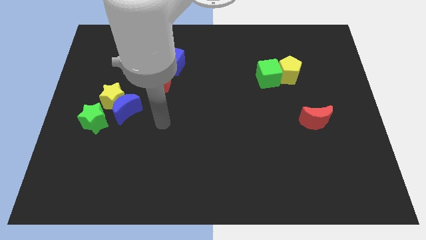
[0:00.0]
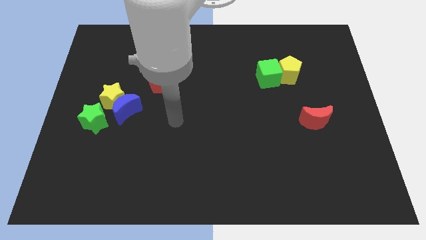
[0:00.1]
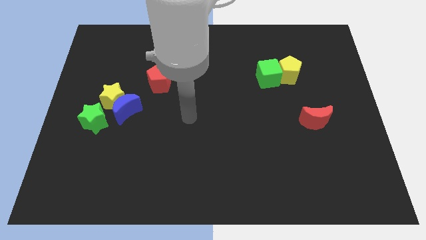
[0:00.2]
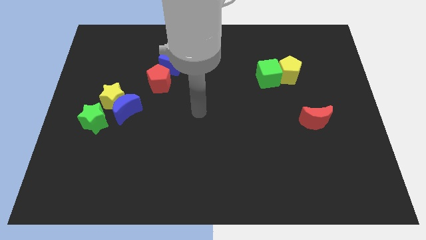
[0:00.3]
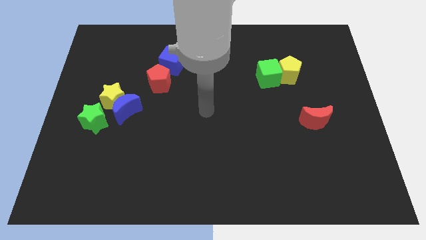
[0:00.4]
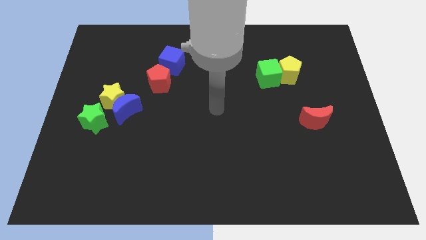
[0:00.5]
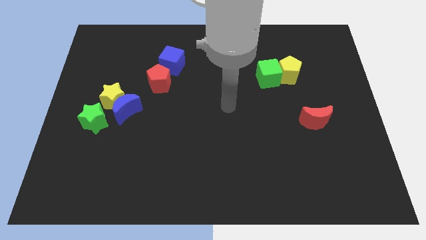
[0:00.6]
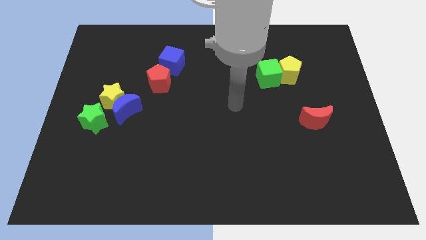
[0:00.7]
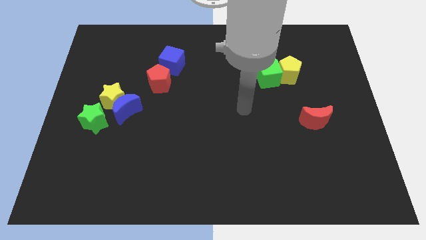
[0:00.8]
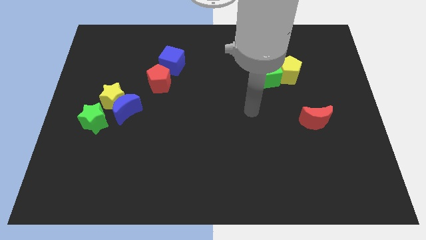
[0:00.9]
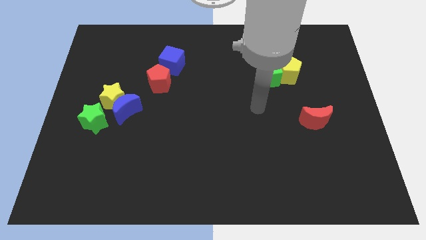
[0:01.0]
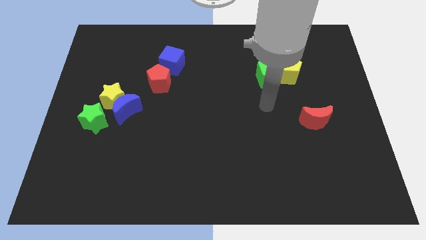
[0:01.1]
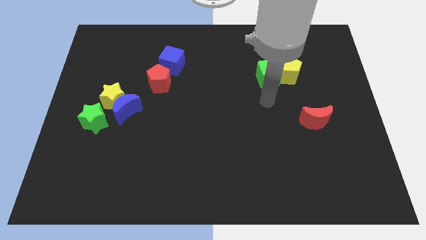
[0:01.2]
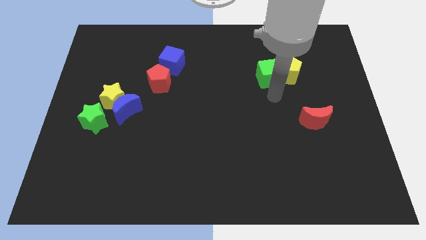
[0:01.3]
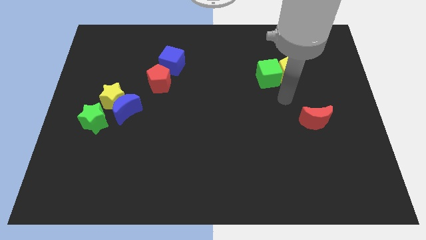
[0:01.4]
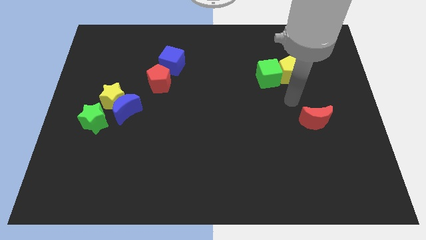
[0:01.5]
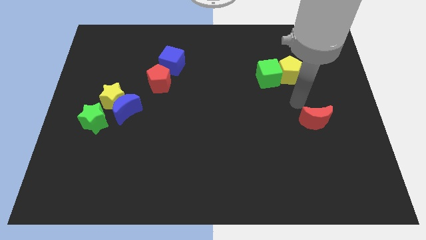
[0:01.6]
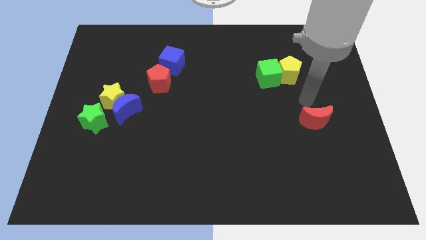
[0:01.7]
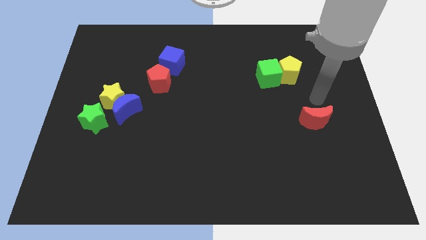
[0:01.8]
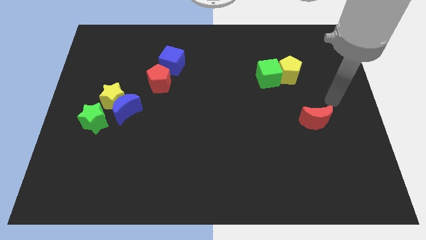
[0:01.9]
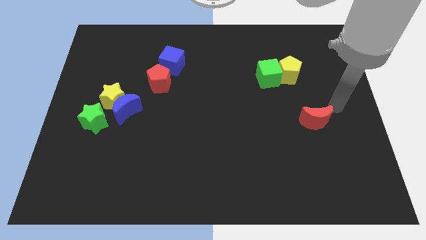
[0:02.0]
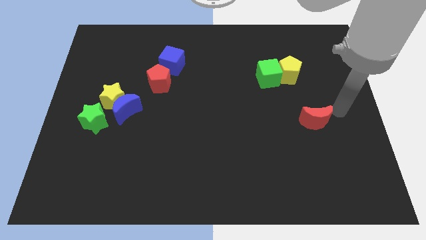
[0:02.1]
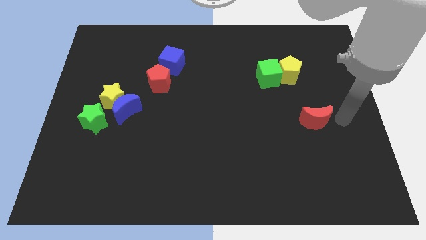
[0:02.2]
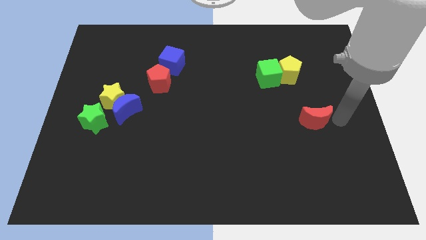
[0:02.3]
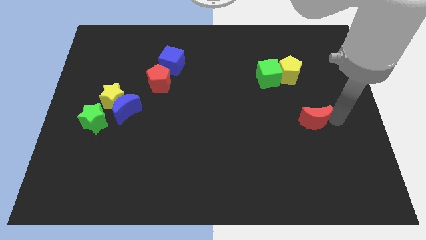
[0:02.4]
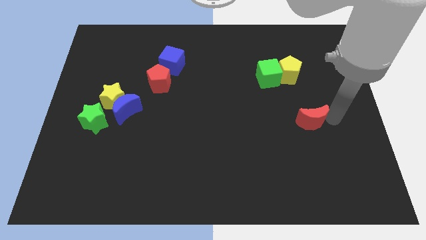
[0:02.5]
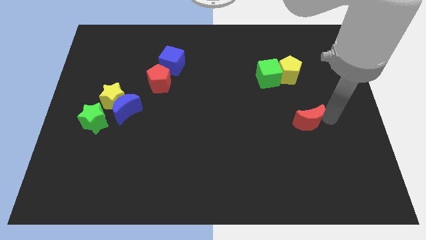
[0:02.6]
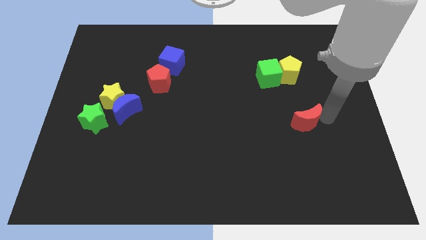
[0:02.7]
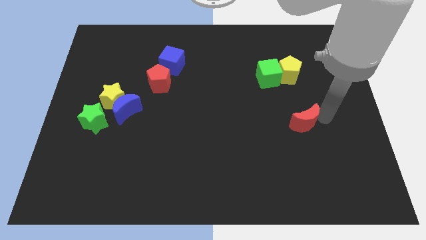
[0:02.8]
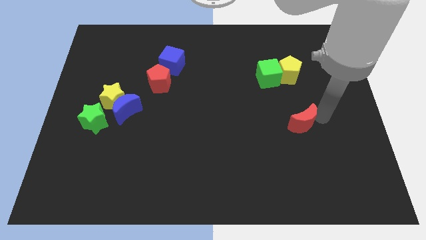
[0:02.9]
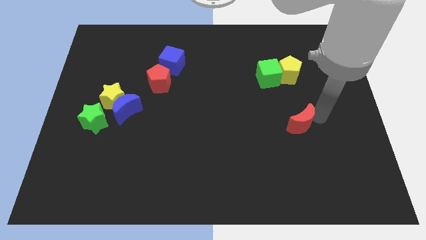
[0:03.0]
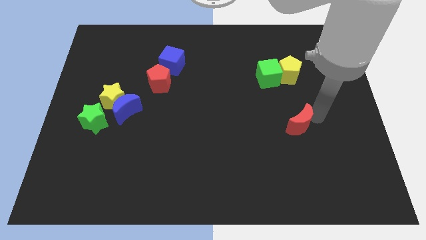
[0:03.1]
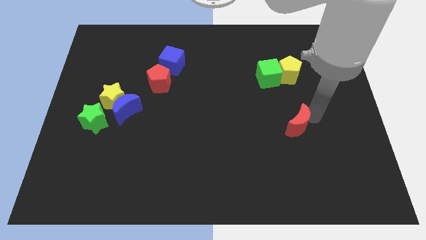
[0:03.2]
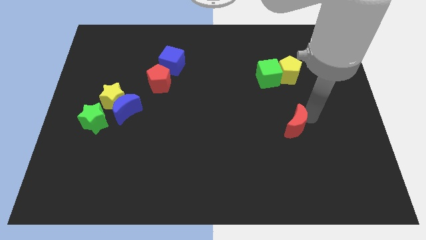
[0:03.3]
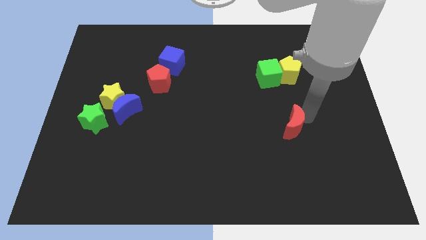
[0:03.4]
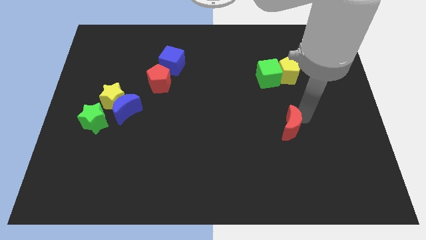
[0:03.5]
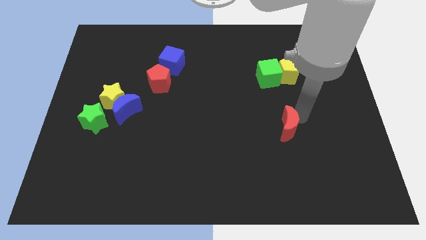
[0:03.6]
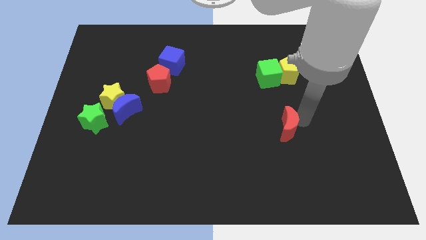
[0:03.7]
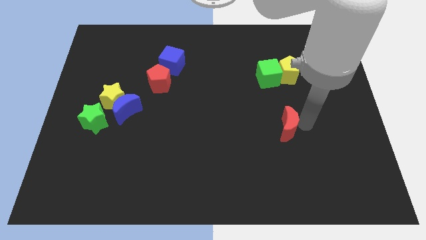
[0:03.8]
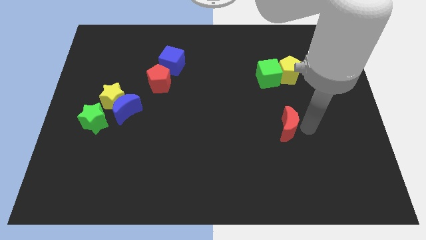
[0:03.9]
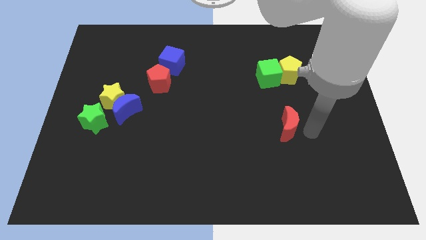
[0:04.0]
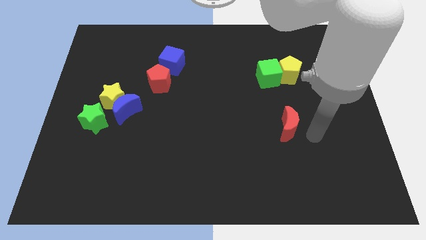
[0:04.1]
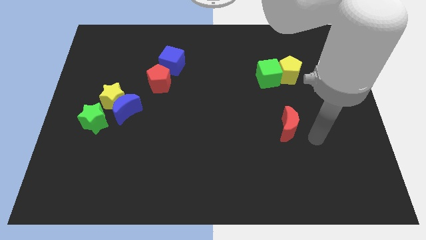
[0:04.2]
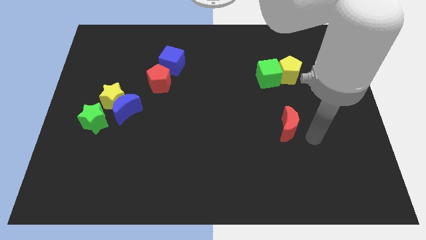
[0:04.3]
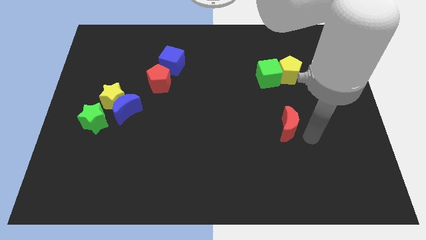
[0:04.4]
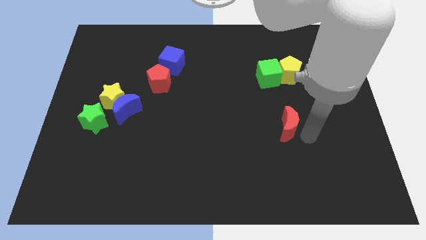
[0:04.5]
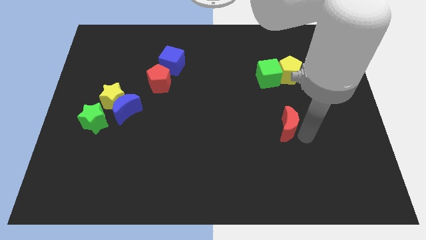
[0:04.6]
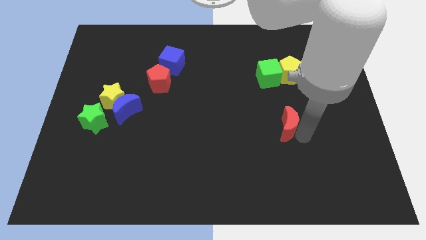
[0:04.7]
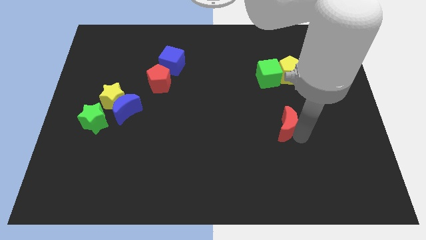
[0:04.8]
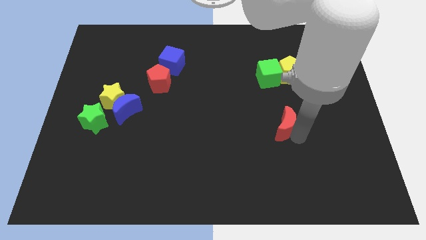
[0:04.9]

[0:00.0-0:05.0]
push the red moon left slightly

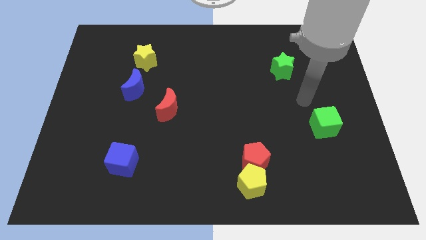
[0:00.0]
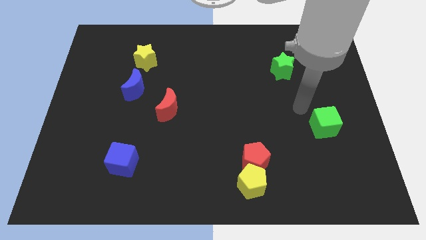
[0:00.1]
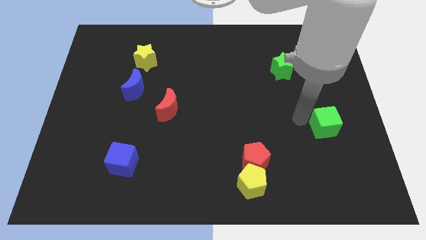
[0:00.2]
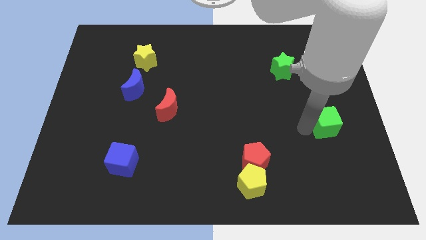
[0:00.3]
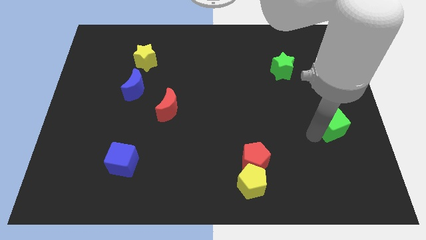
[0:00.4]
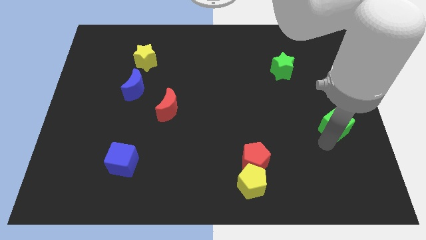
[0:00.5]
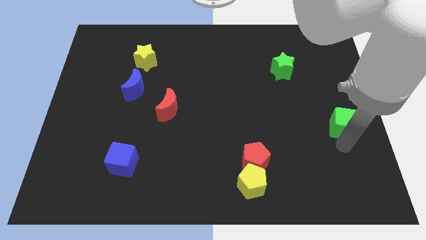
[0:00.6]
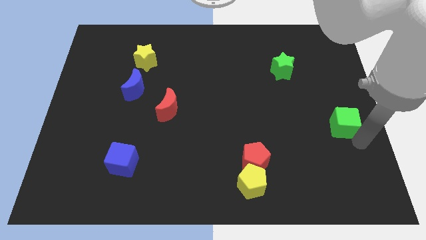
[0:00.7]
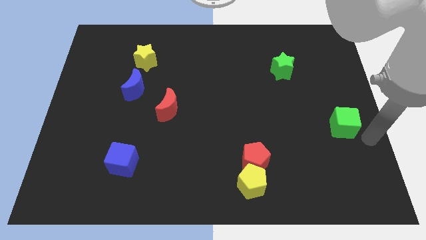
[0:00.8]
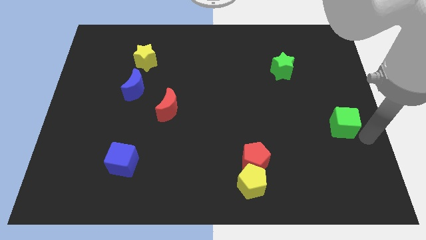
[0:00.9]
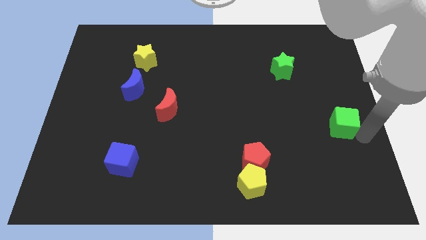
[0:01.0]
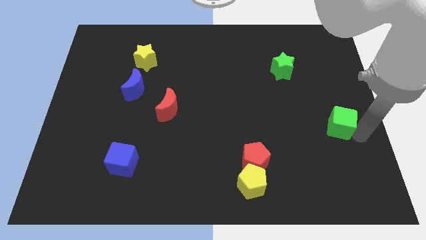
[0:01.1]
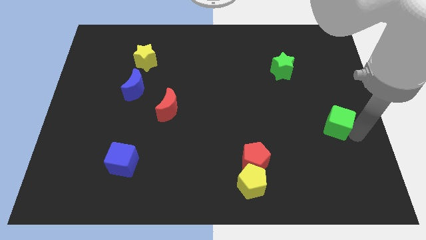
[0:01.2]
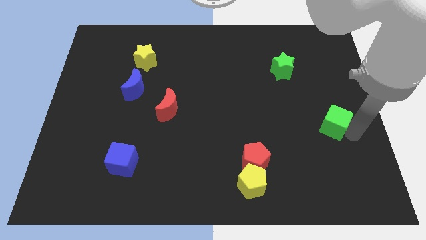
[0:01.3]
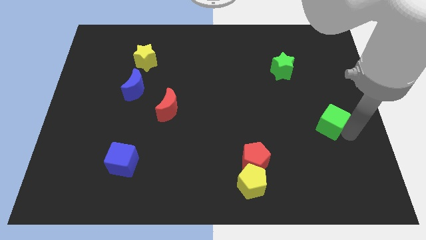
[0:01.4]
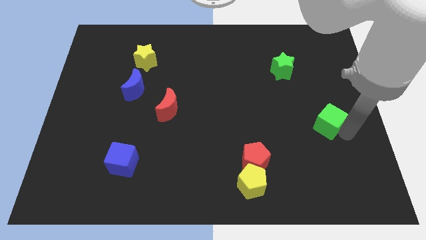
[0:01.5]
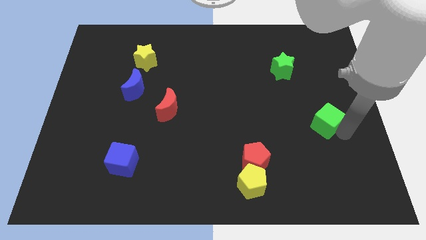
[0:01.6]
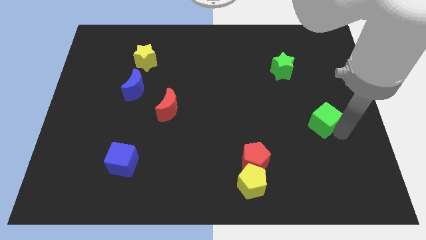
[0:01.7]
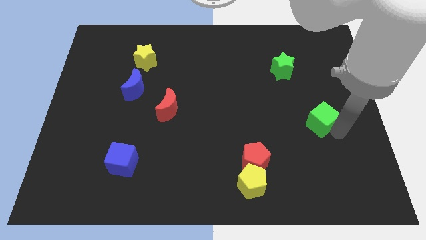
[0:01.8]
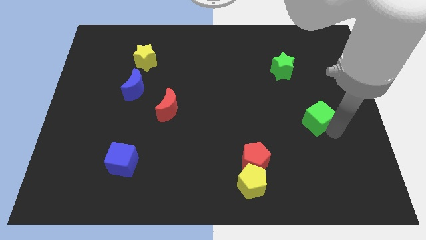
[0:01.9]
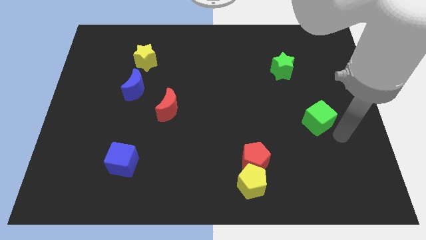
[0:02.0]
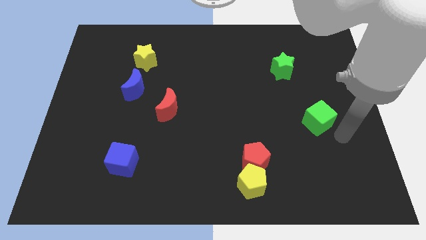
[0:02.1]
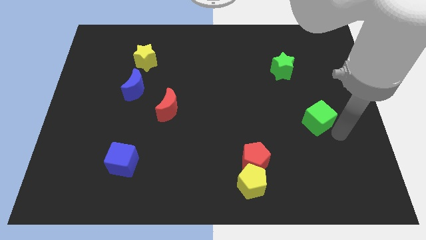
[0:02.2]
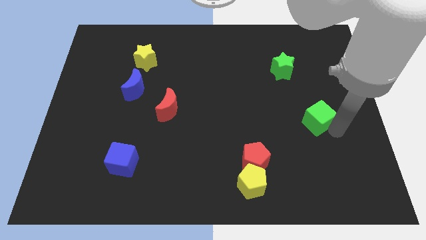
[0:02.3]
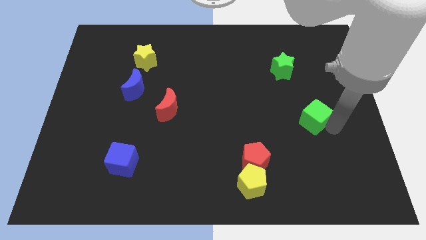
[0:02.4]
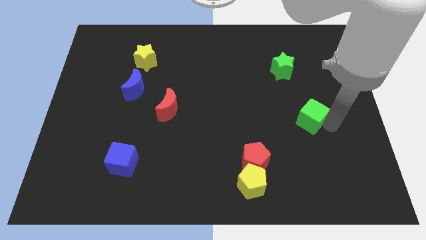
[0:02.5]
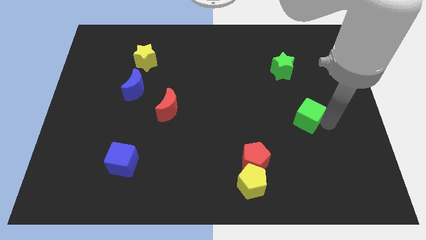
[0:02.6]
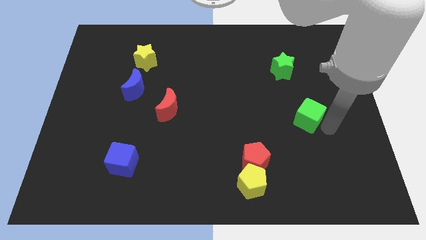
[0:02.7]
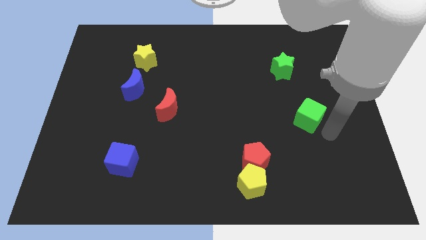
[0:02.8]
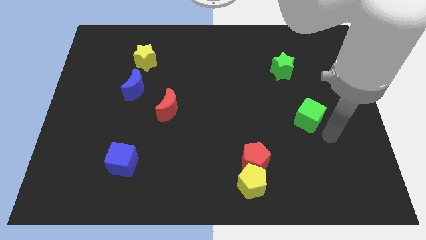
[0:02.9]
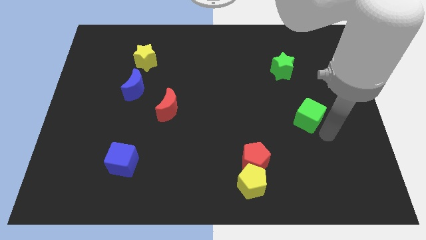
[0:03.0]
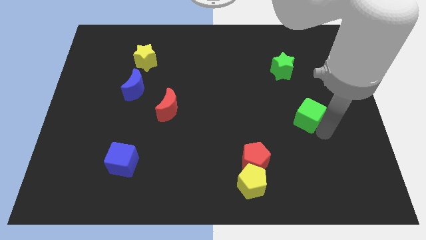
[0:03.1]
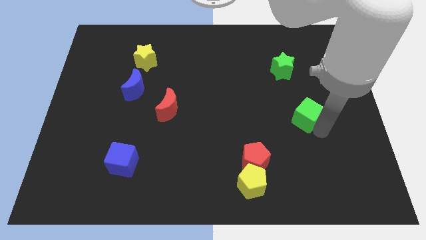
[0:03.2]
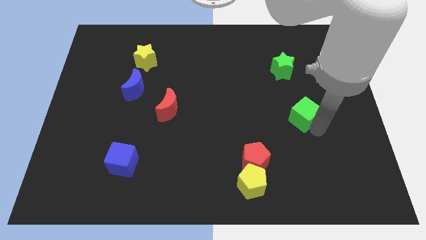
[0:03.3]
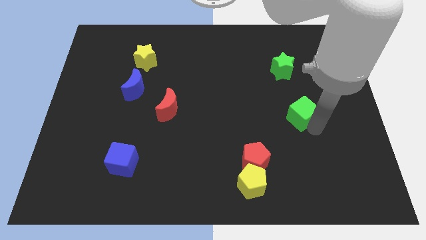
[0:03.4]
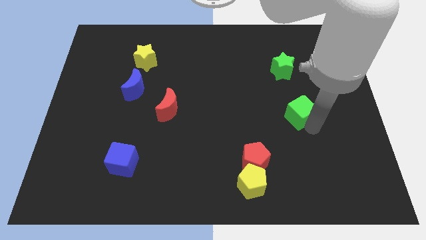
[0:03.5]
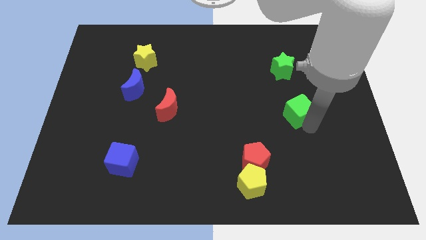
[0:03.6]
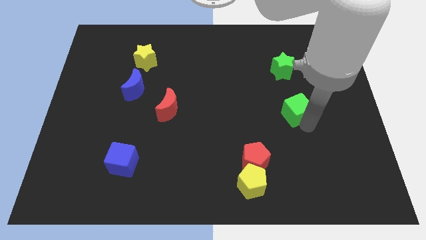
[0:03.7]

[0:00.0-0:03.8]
push the green cube a little bit upwards and to the left
